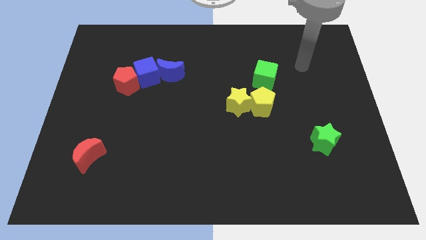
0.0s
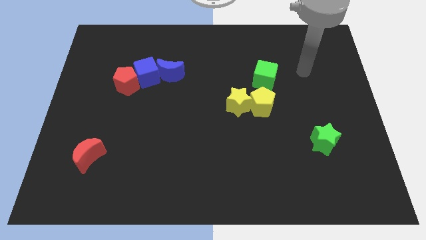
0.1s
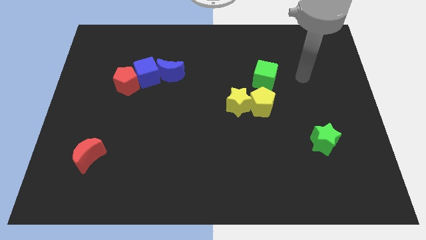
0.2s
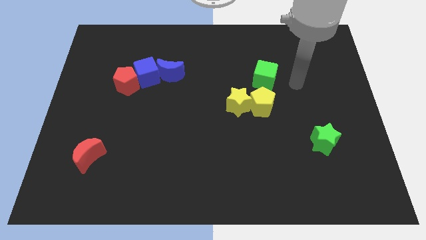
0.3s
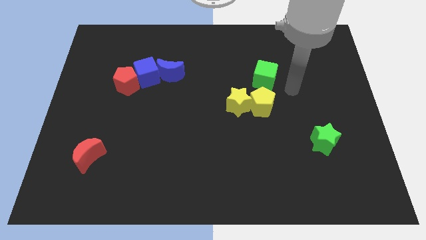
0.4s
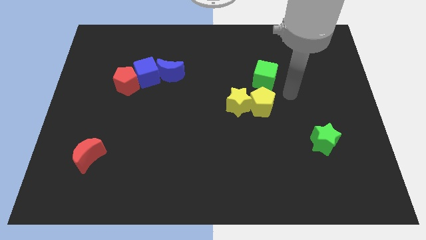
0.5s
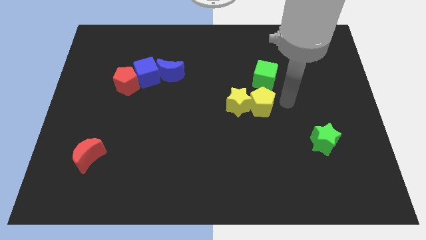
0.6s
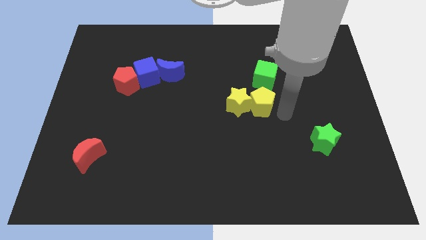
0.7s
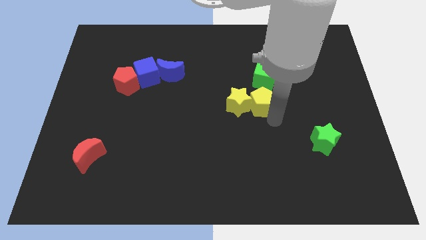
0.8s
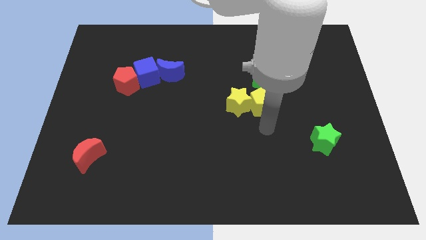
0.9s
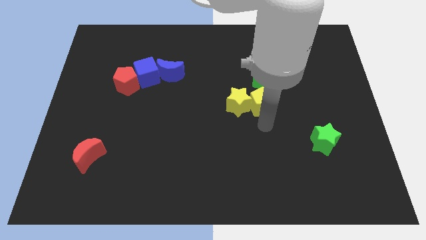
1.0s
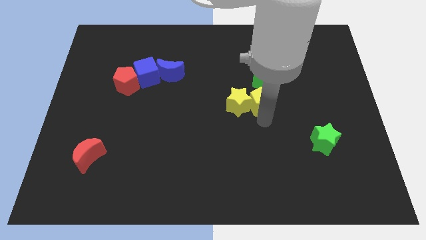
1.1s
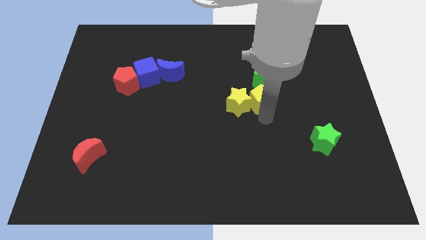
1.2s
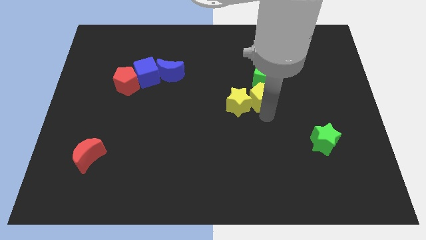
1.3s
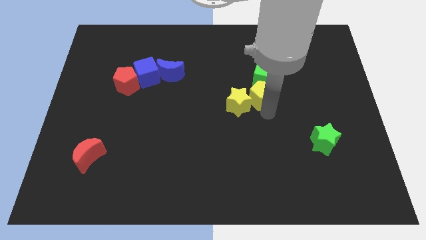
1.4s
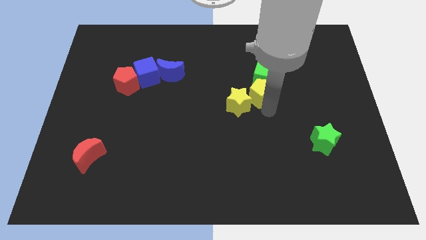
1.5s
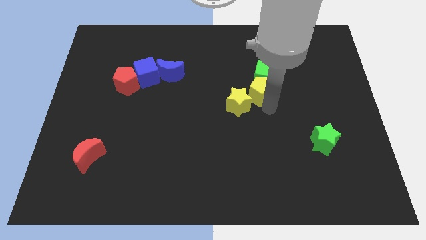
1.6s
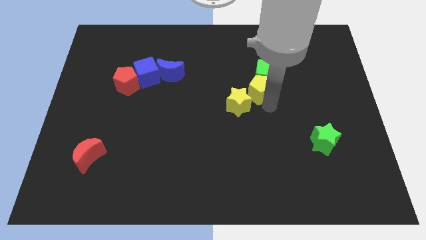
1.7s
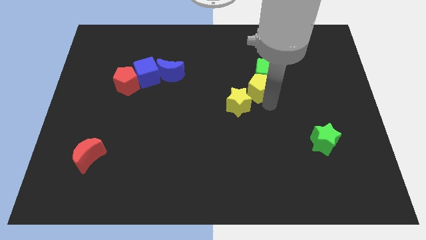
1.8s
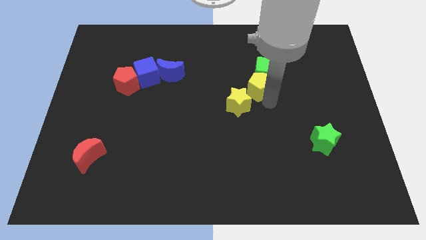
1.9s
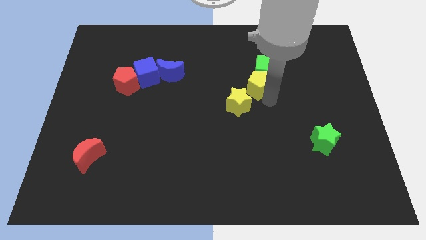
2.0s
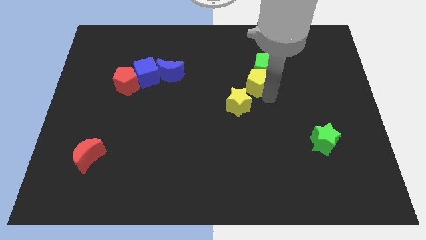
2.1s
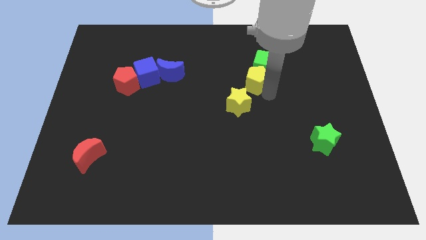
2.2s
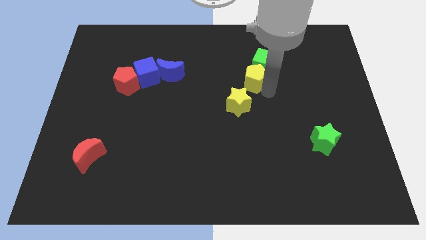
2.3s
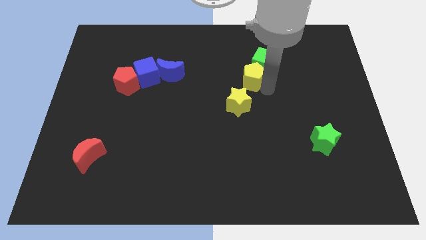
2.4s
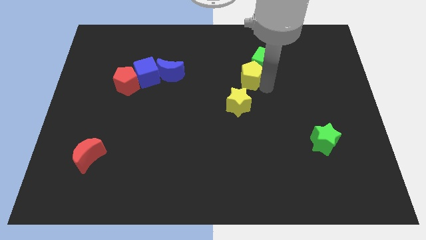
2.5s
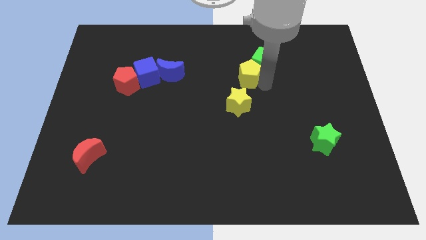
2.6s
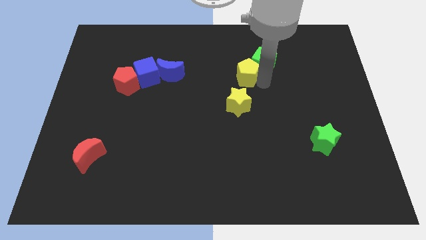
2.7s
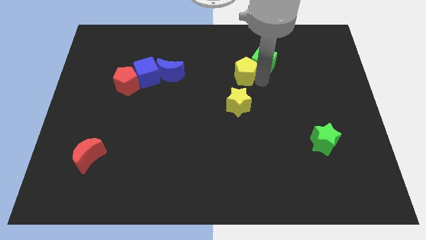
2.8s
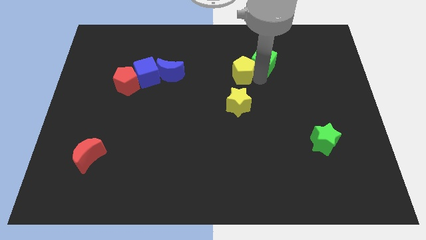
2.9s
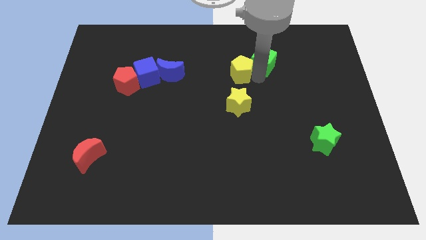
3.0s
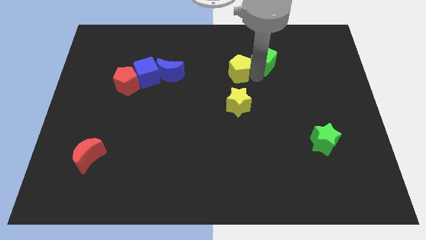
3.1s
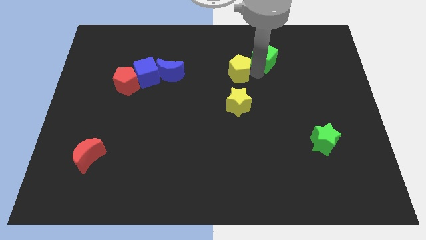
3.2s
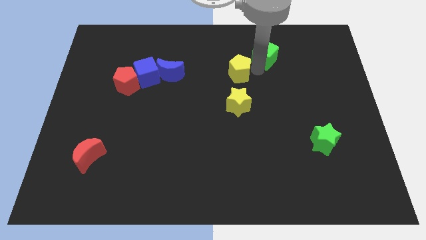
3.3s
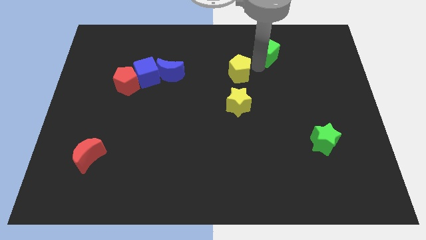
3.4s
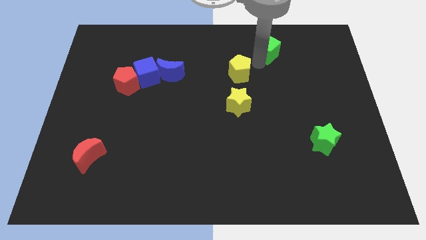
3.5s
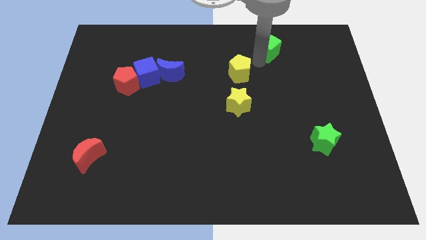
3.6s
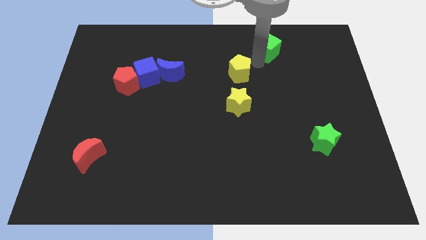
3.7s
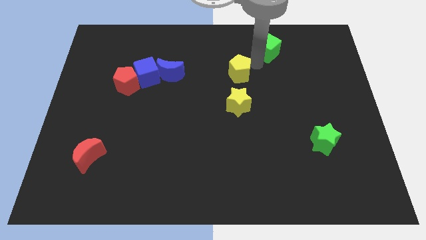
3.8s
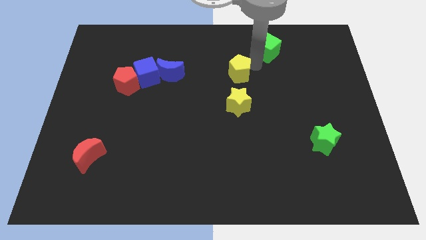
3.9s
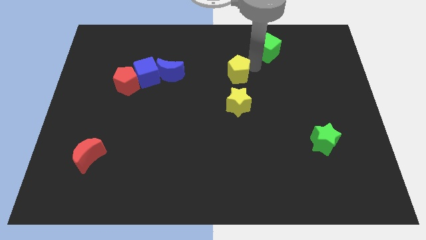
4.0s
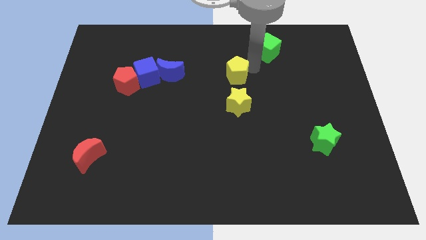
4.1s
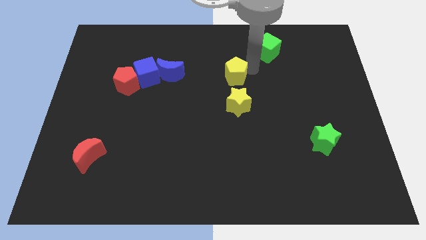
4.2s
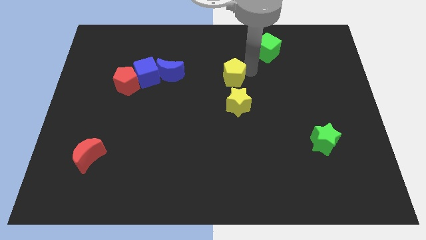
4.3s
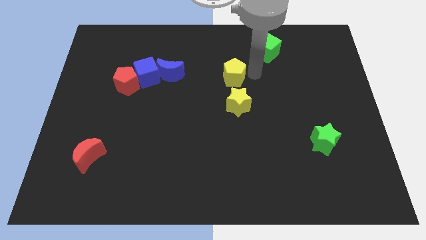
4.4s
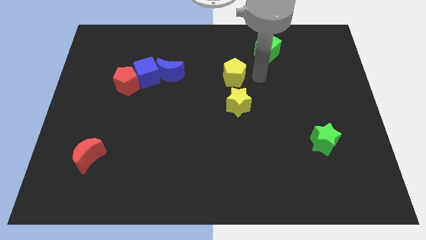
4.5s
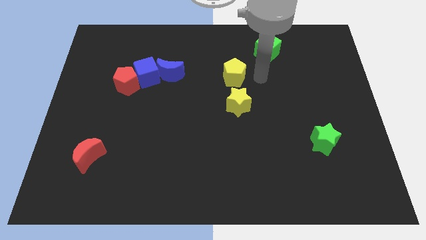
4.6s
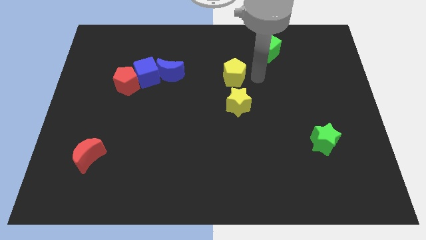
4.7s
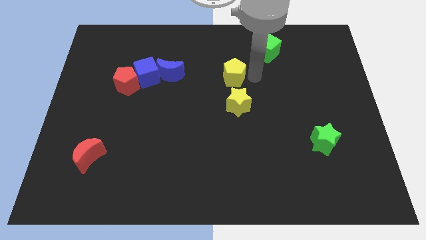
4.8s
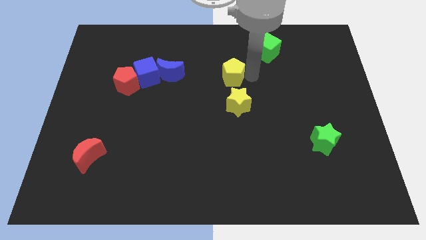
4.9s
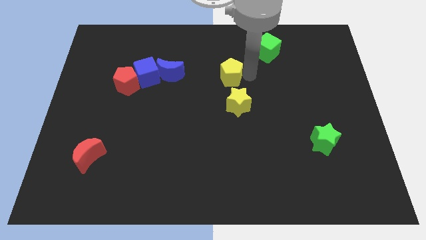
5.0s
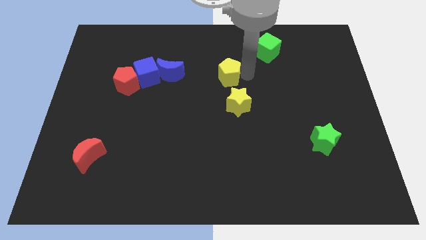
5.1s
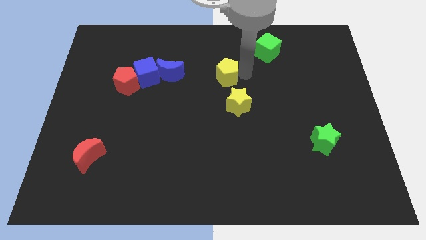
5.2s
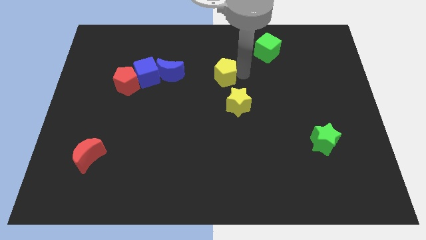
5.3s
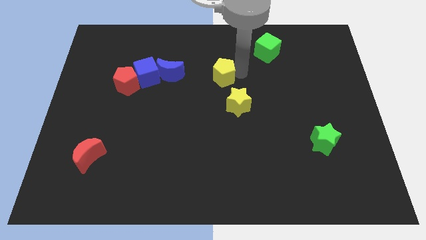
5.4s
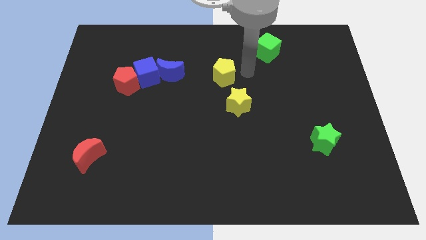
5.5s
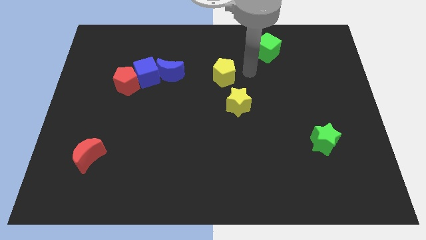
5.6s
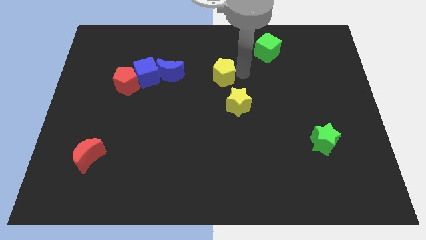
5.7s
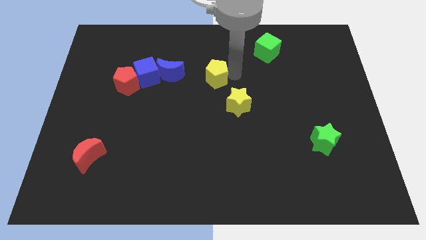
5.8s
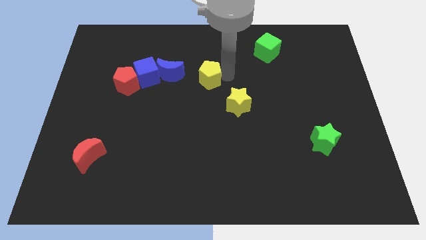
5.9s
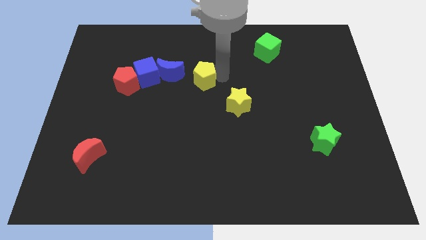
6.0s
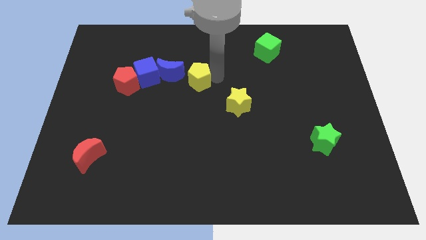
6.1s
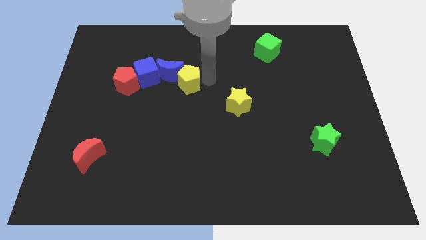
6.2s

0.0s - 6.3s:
move the yellow pentagon next to the blue moon
